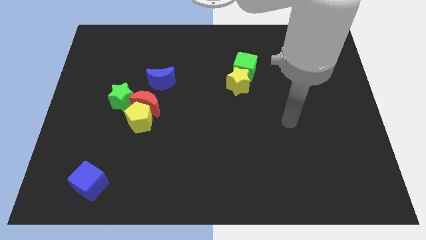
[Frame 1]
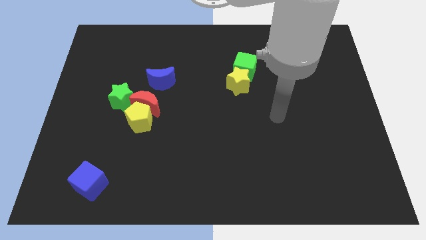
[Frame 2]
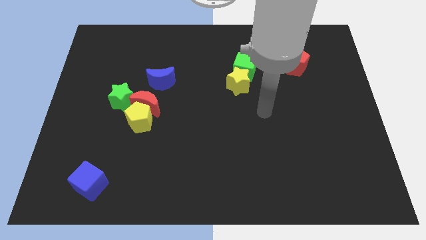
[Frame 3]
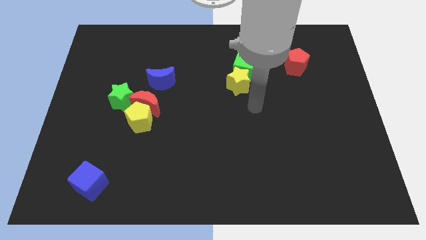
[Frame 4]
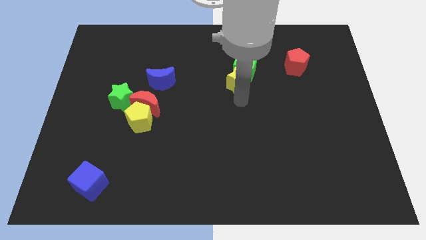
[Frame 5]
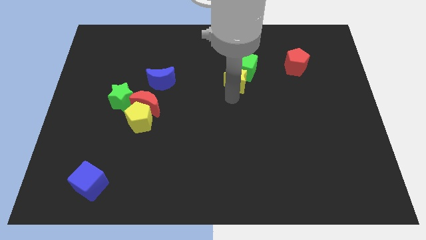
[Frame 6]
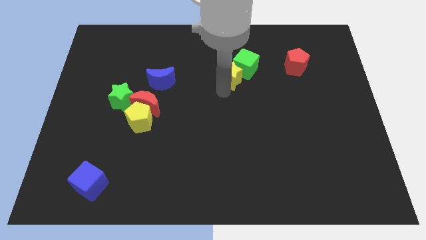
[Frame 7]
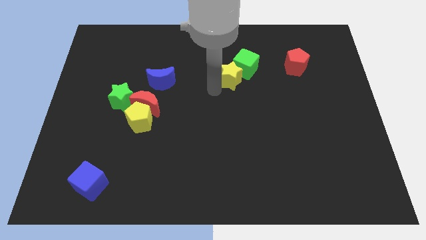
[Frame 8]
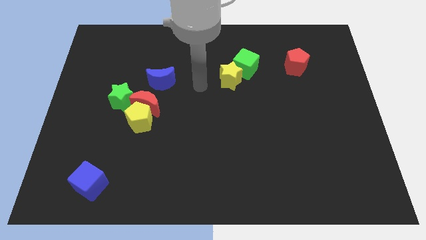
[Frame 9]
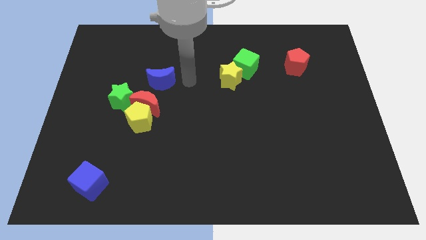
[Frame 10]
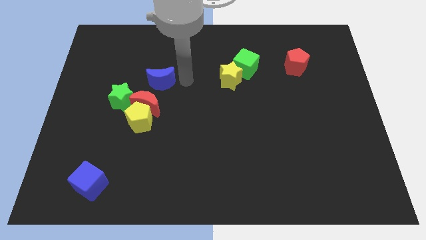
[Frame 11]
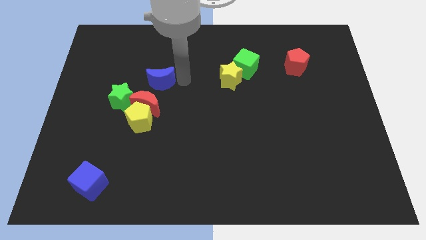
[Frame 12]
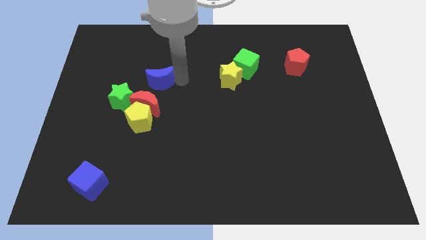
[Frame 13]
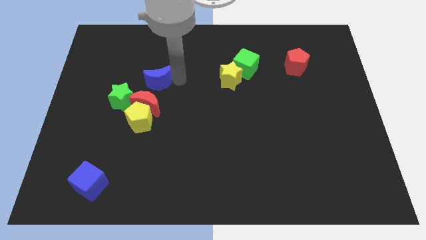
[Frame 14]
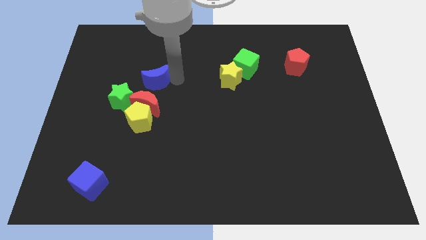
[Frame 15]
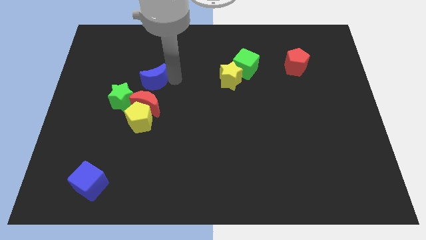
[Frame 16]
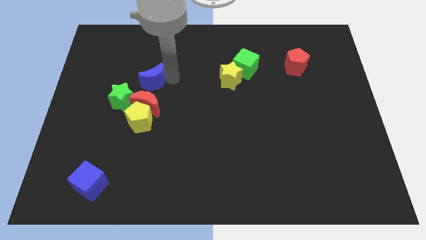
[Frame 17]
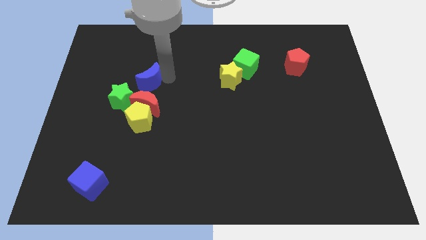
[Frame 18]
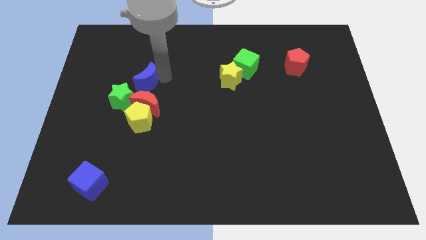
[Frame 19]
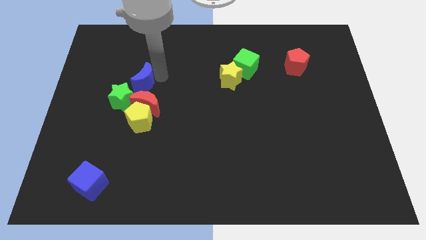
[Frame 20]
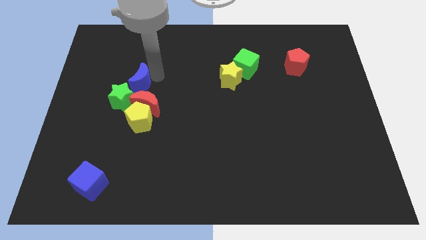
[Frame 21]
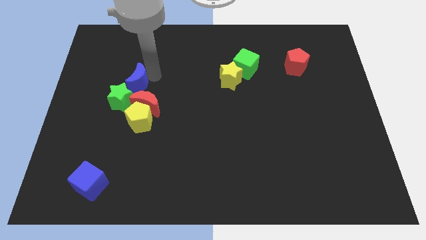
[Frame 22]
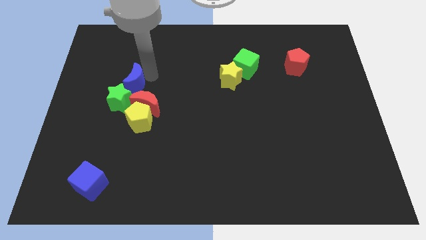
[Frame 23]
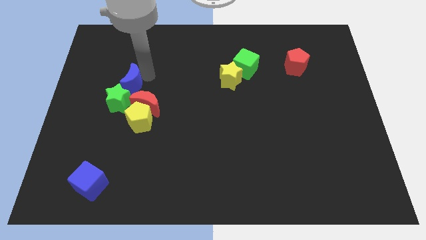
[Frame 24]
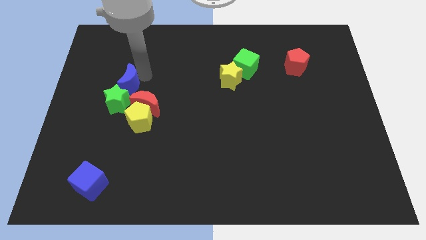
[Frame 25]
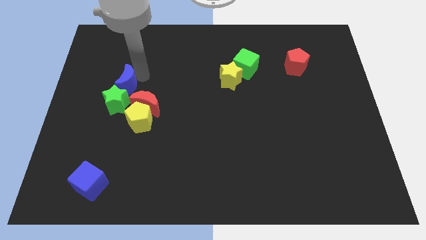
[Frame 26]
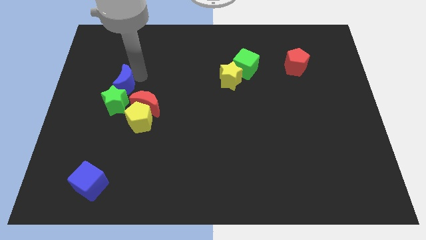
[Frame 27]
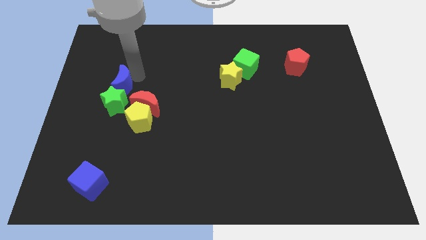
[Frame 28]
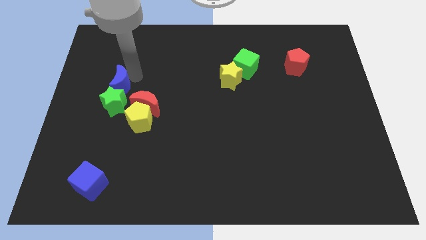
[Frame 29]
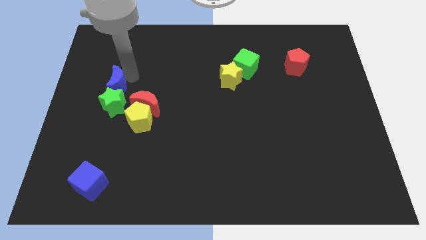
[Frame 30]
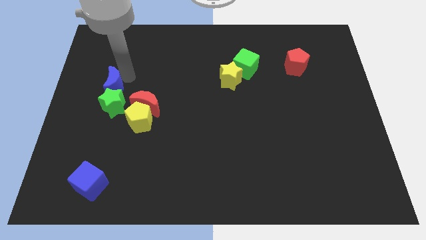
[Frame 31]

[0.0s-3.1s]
push the blue moon a bit diagonally downwards and to the left

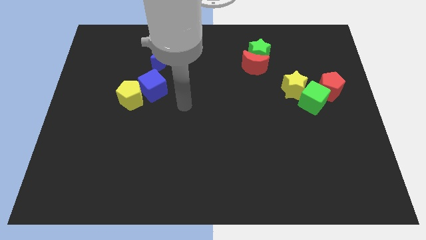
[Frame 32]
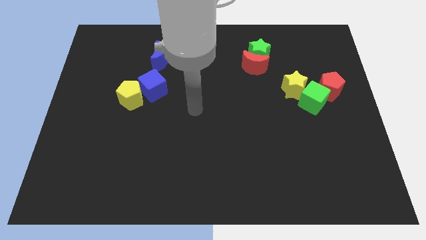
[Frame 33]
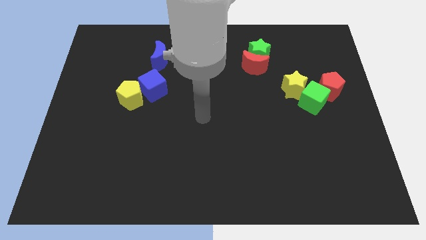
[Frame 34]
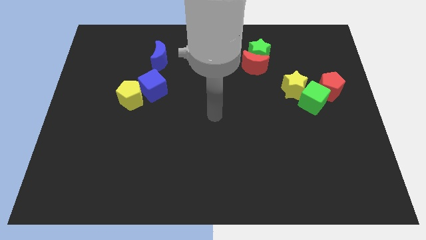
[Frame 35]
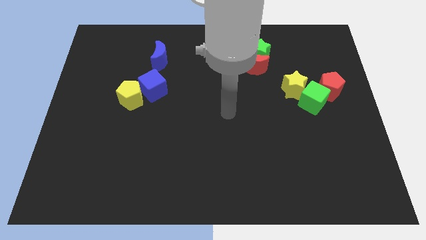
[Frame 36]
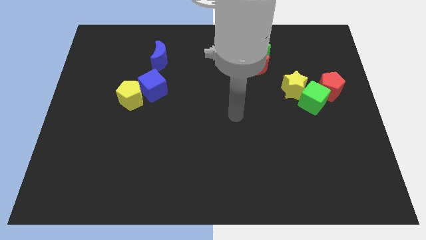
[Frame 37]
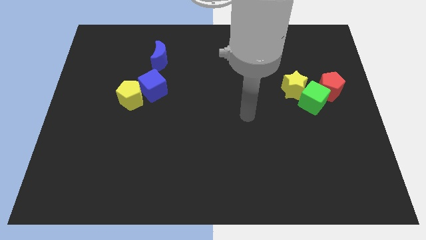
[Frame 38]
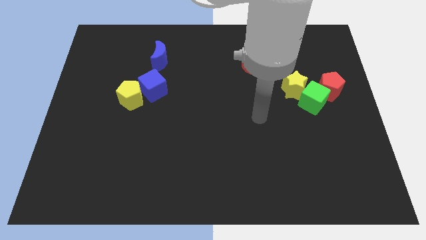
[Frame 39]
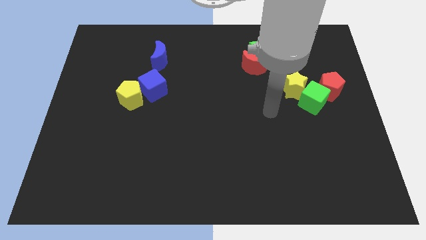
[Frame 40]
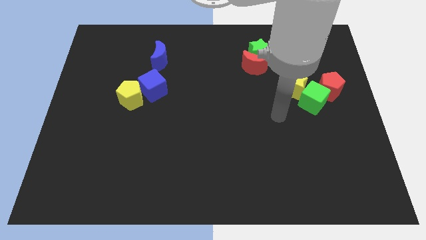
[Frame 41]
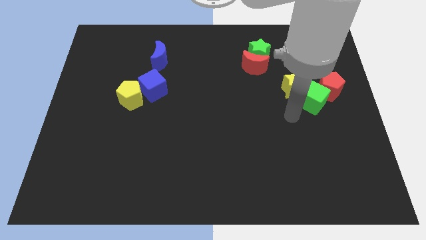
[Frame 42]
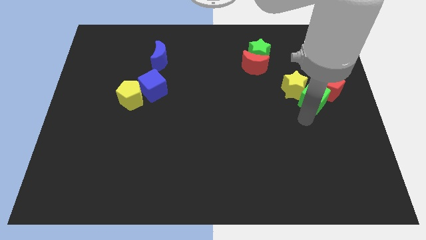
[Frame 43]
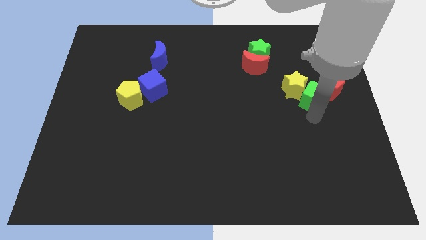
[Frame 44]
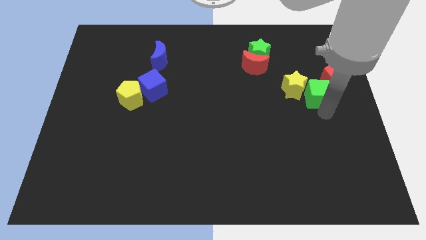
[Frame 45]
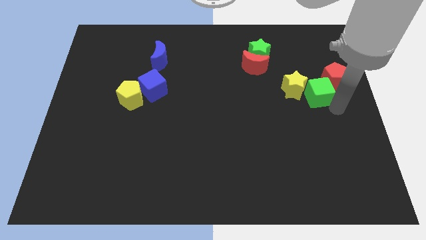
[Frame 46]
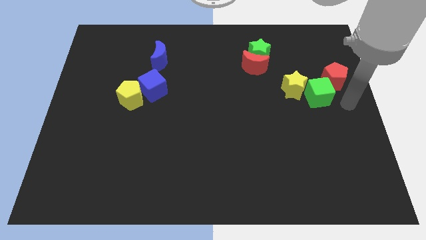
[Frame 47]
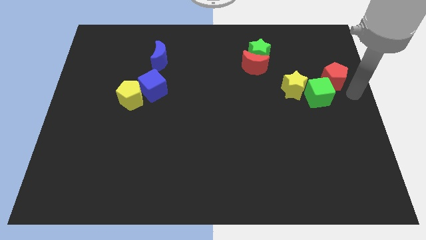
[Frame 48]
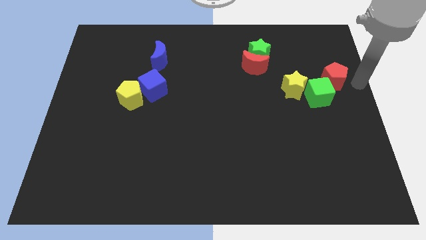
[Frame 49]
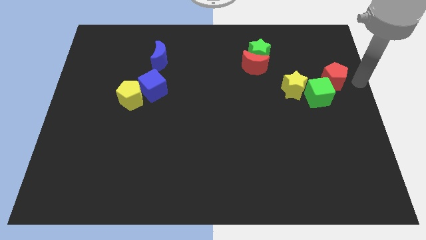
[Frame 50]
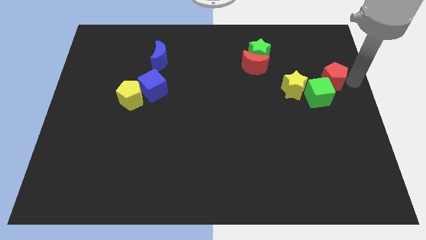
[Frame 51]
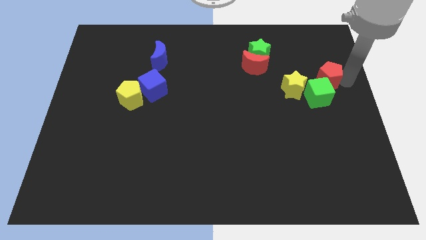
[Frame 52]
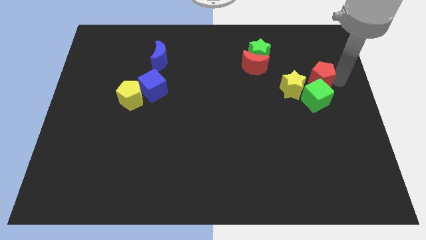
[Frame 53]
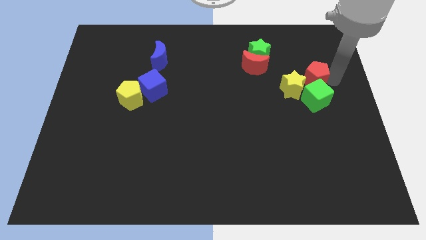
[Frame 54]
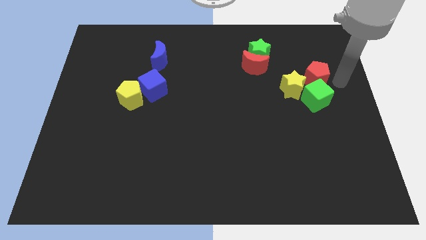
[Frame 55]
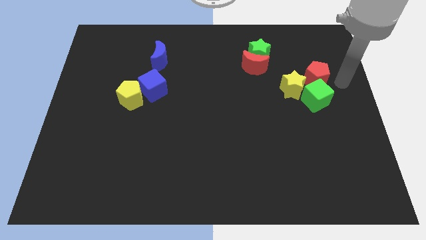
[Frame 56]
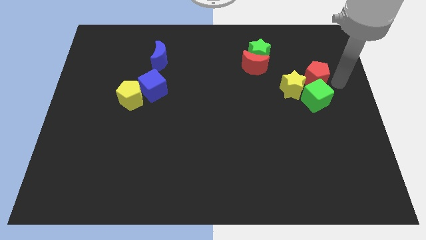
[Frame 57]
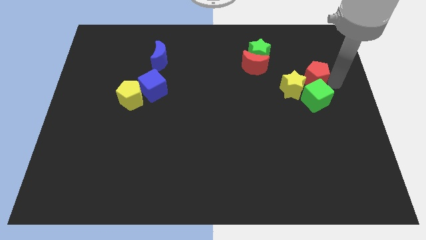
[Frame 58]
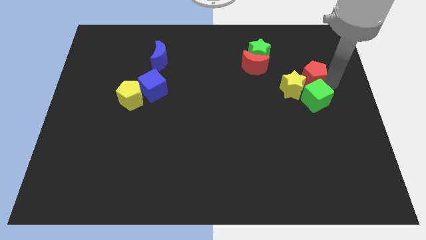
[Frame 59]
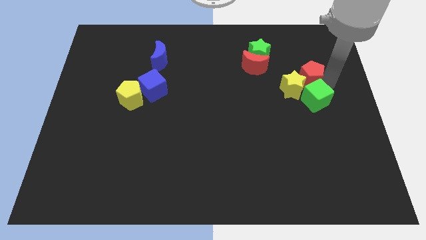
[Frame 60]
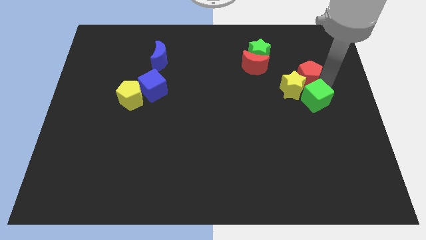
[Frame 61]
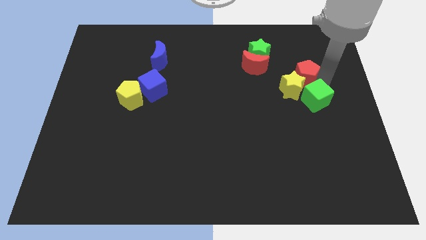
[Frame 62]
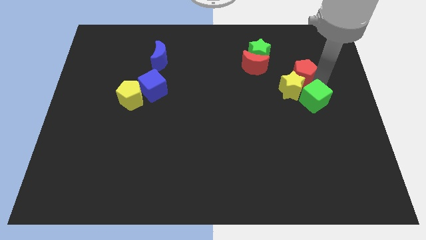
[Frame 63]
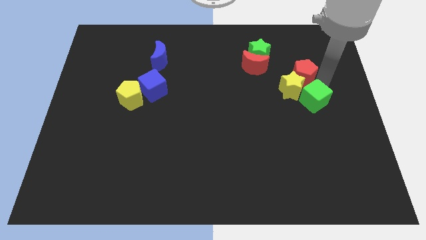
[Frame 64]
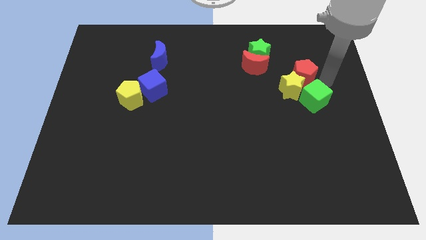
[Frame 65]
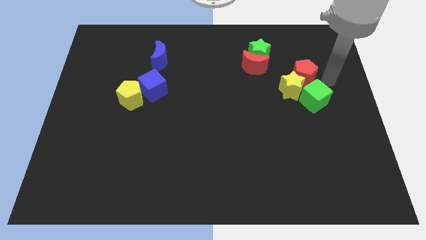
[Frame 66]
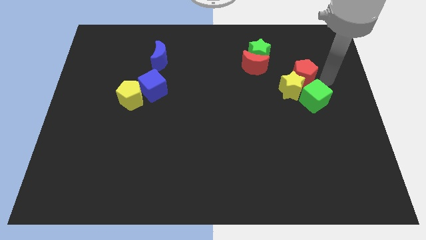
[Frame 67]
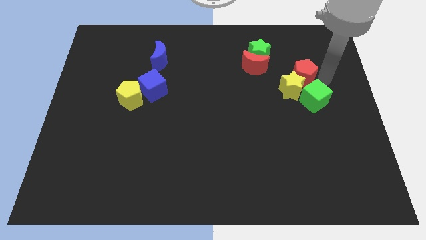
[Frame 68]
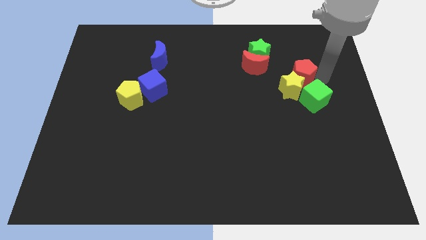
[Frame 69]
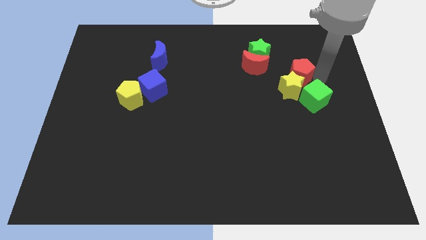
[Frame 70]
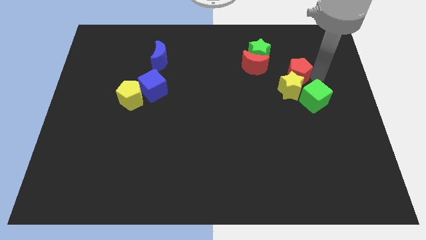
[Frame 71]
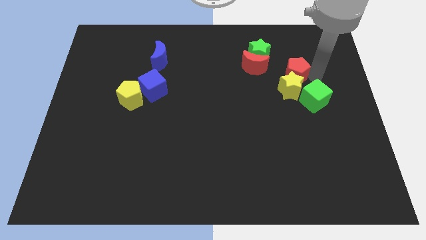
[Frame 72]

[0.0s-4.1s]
push the red pentagon left slightly

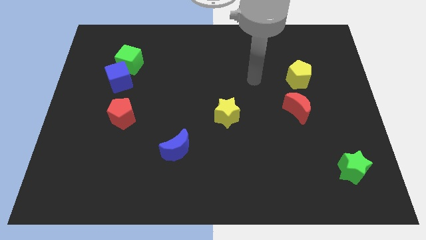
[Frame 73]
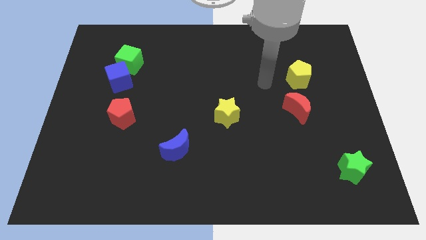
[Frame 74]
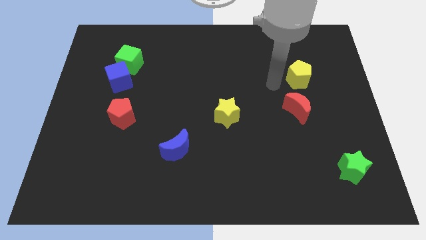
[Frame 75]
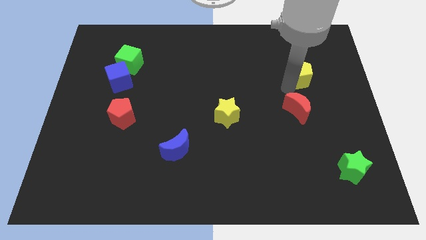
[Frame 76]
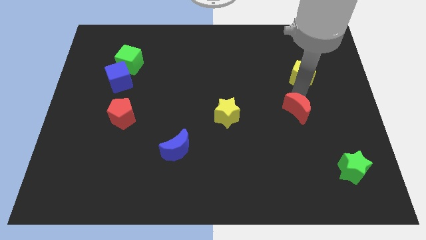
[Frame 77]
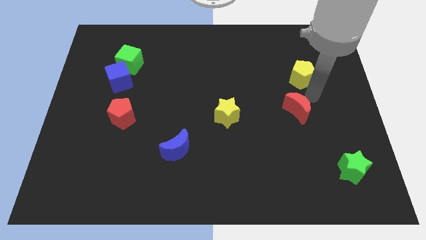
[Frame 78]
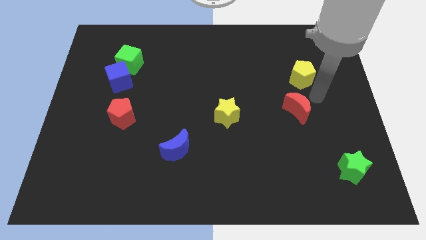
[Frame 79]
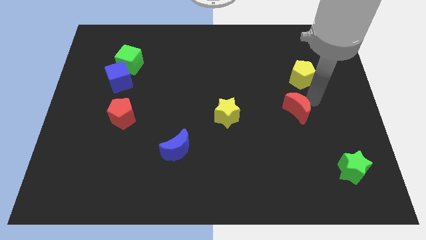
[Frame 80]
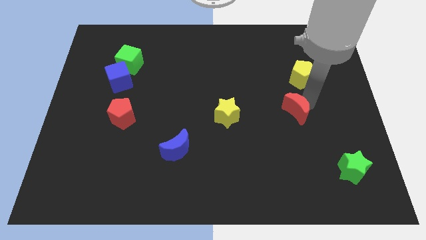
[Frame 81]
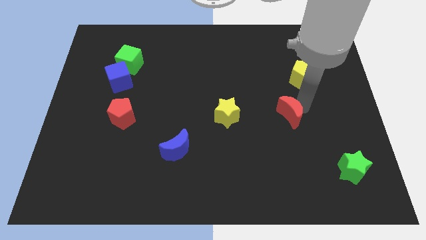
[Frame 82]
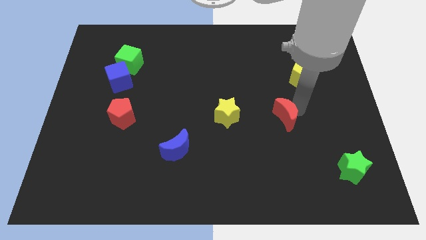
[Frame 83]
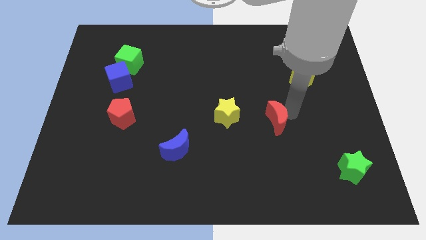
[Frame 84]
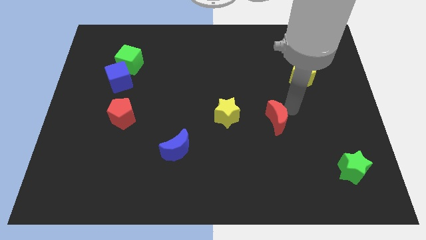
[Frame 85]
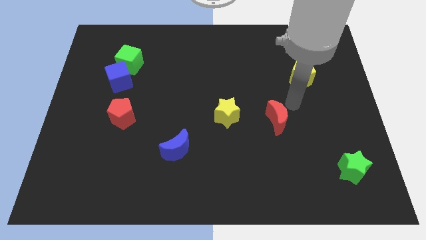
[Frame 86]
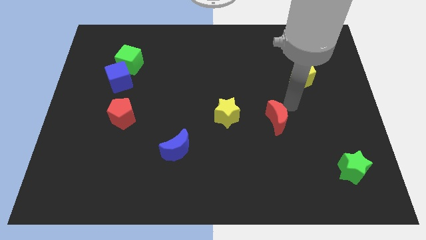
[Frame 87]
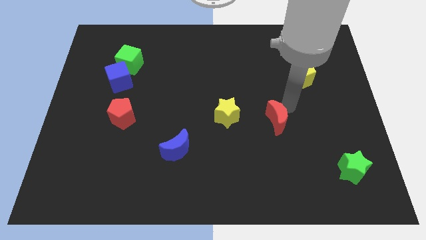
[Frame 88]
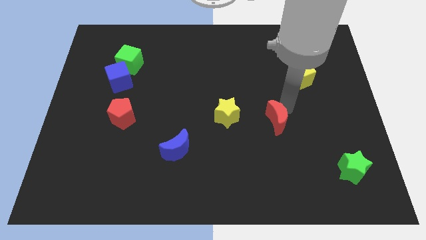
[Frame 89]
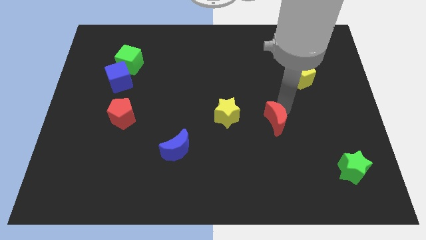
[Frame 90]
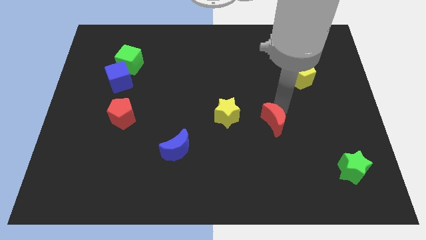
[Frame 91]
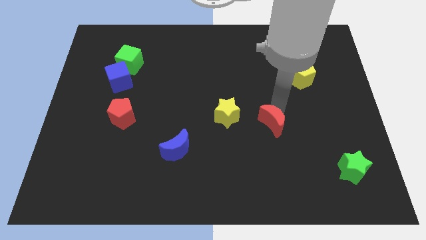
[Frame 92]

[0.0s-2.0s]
push the red moon a little downwards and to the left diagonally
